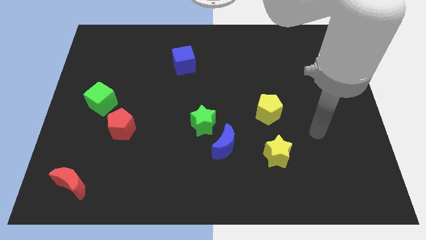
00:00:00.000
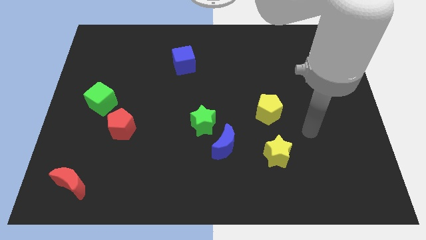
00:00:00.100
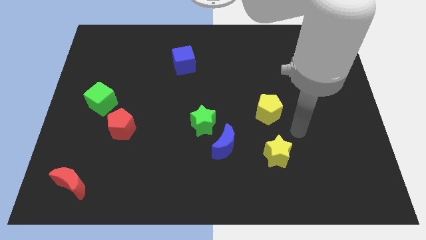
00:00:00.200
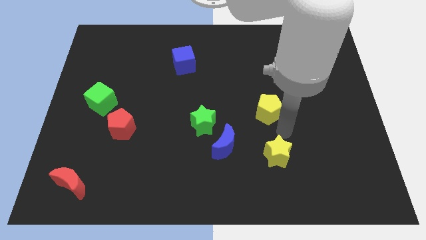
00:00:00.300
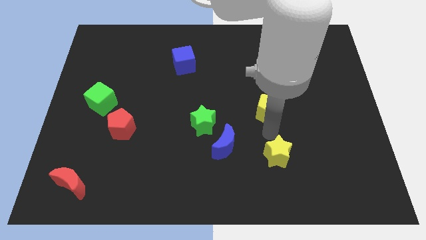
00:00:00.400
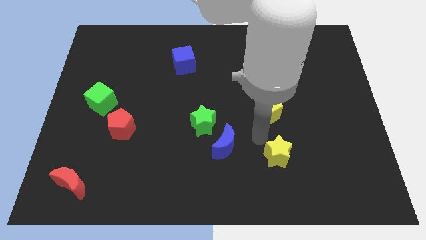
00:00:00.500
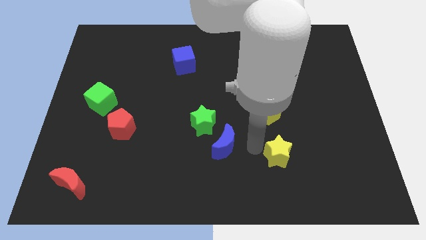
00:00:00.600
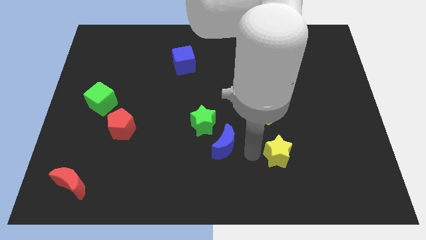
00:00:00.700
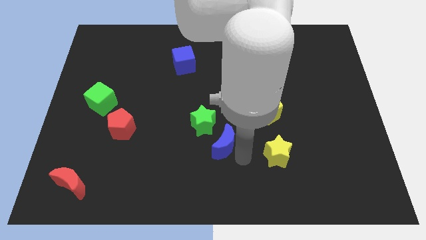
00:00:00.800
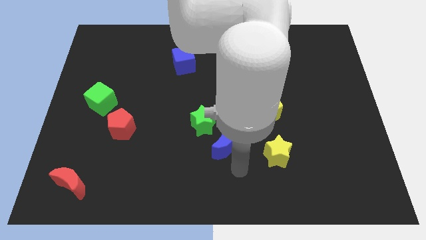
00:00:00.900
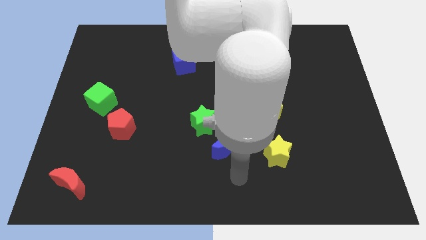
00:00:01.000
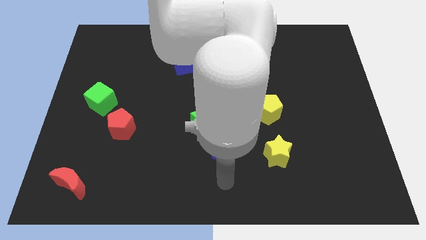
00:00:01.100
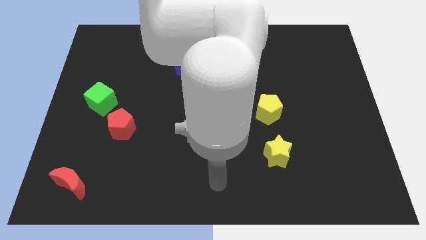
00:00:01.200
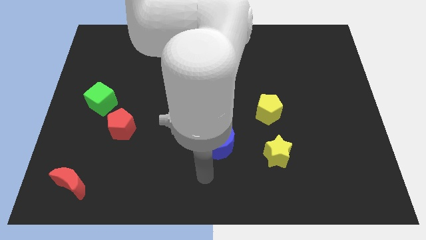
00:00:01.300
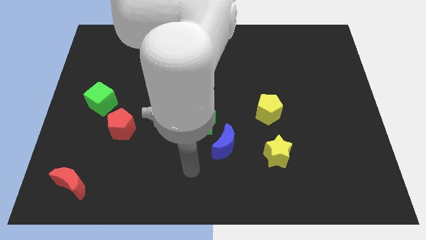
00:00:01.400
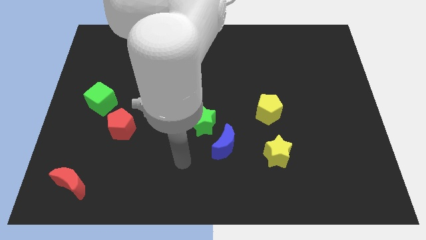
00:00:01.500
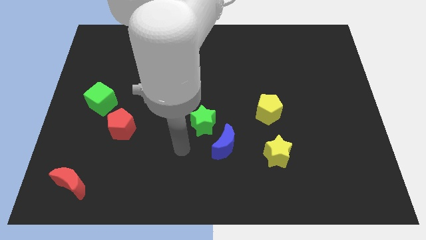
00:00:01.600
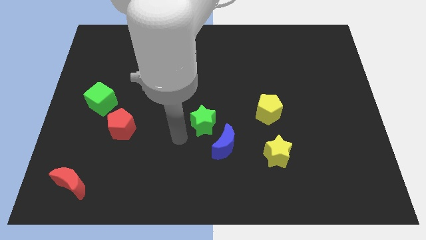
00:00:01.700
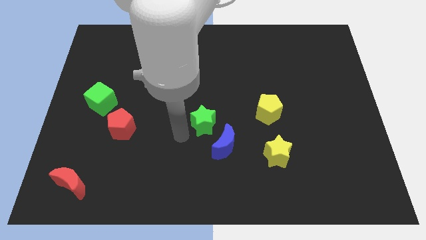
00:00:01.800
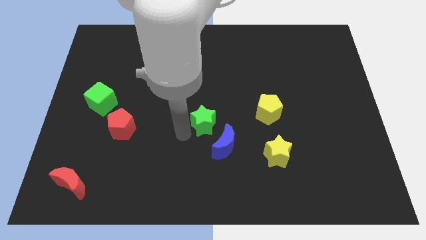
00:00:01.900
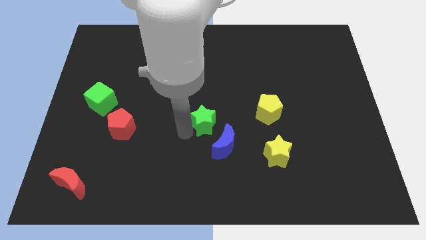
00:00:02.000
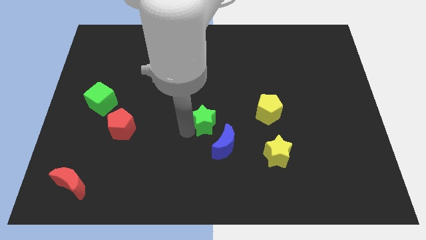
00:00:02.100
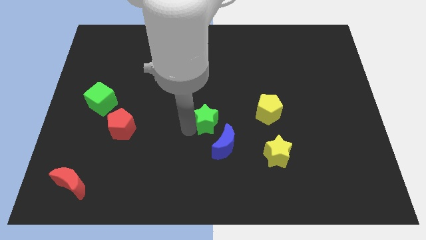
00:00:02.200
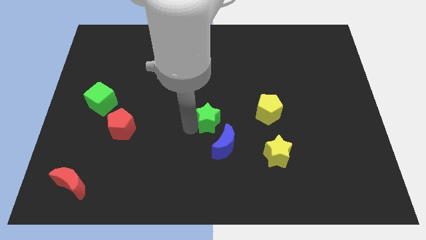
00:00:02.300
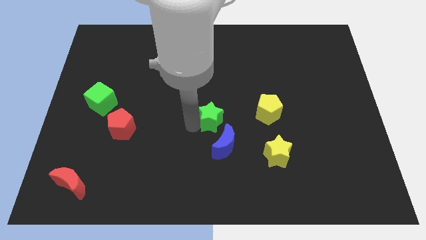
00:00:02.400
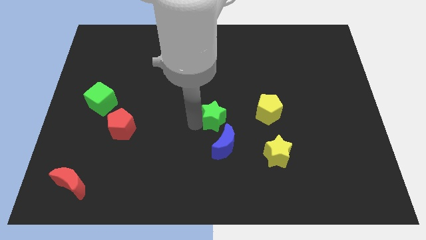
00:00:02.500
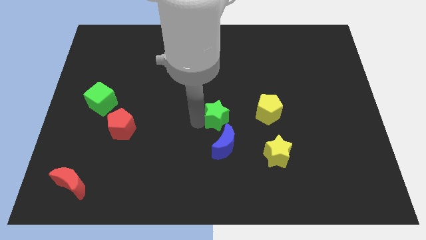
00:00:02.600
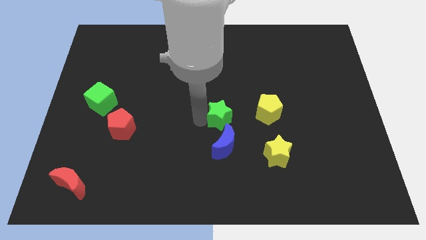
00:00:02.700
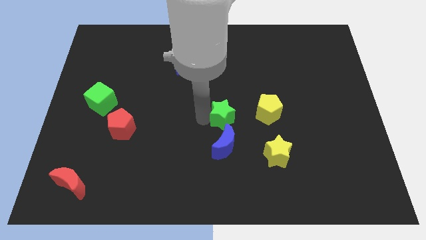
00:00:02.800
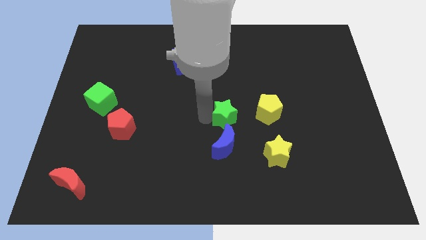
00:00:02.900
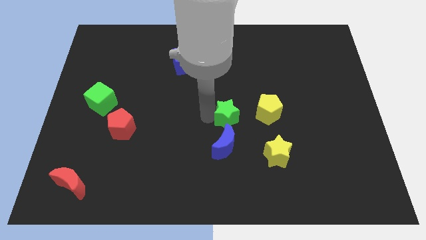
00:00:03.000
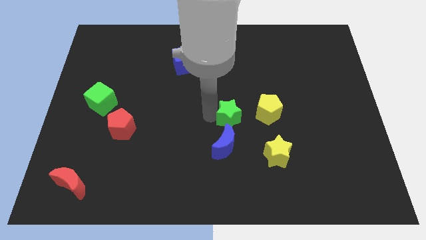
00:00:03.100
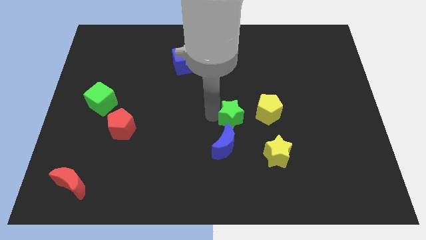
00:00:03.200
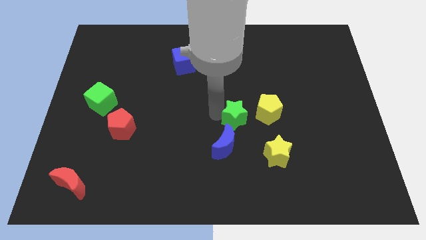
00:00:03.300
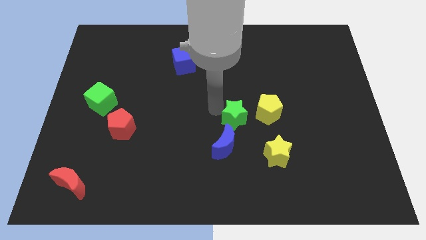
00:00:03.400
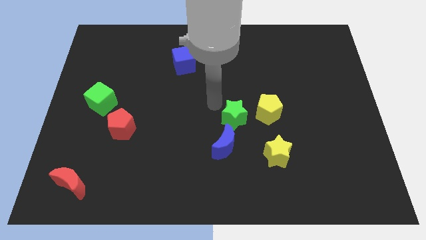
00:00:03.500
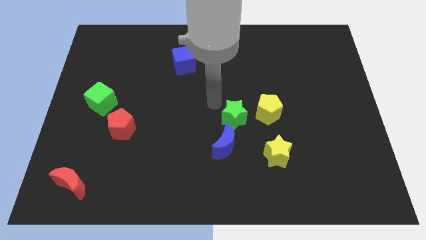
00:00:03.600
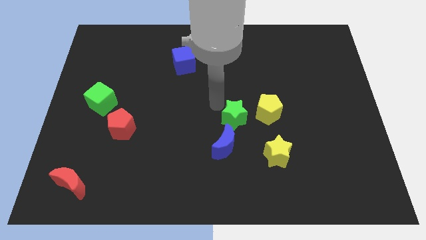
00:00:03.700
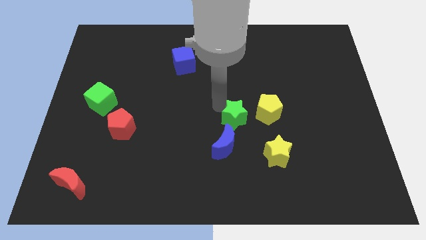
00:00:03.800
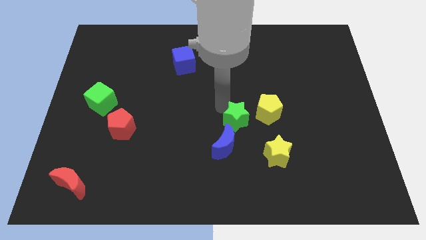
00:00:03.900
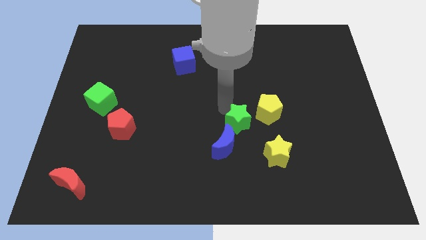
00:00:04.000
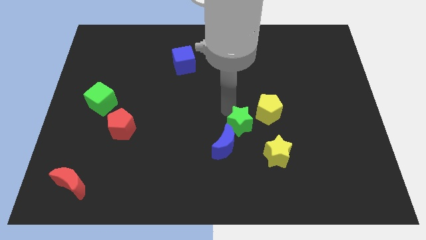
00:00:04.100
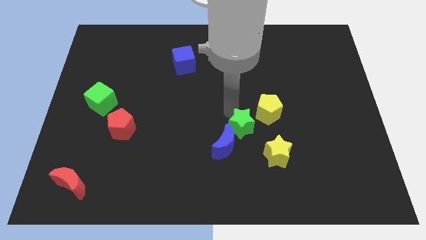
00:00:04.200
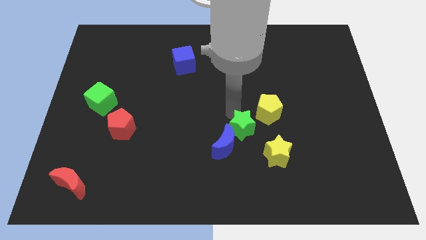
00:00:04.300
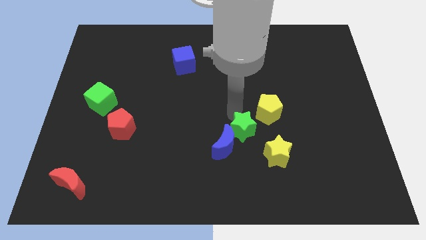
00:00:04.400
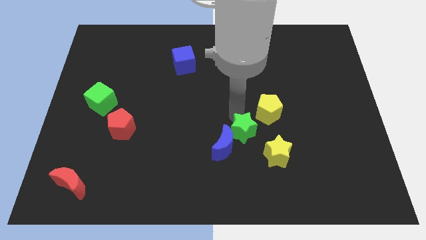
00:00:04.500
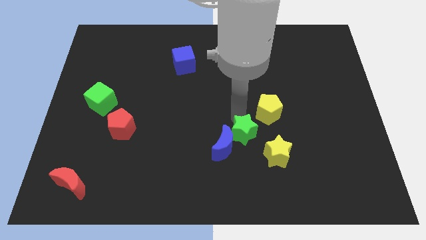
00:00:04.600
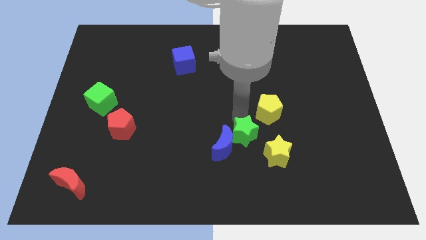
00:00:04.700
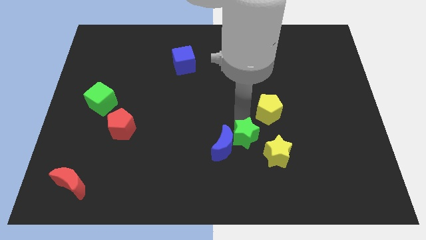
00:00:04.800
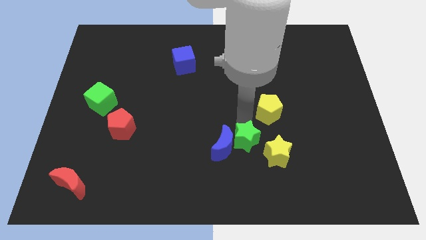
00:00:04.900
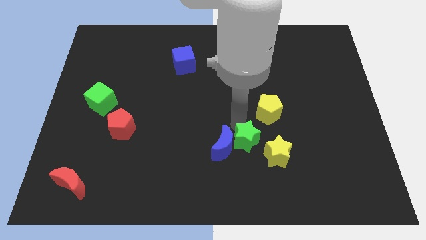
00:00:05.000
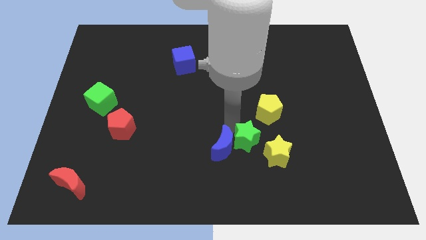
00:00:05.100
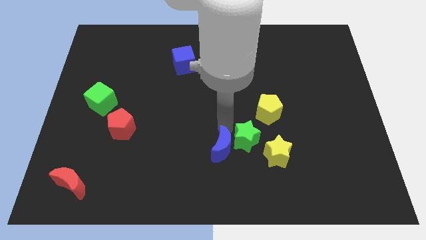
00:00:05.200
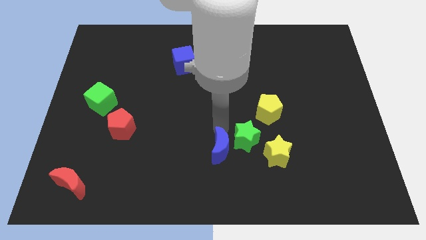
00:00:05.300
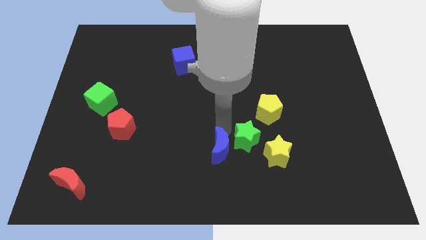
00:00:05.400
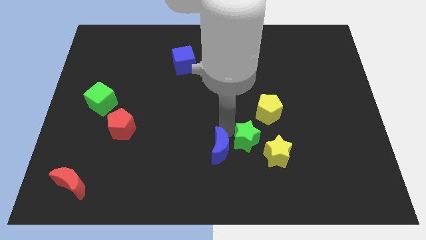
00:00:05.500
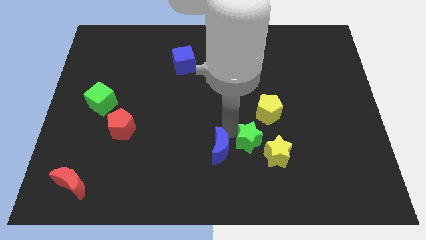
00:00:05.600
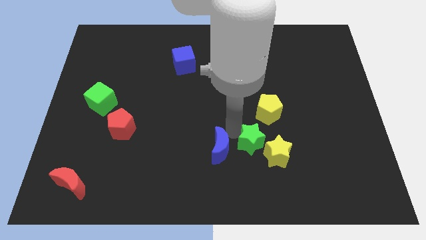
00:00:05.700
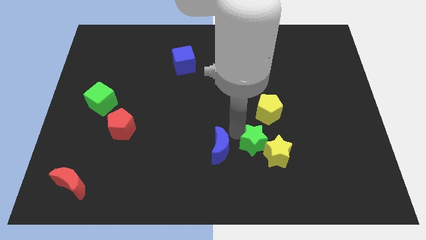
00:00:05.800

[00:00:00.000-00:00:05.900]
push the green star to the yellow star

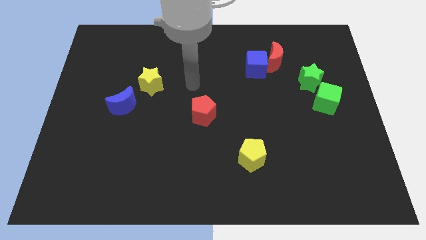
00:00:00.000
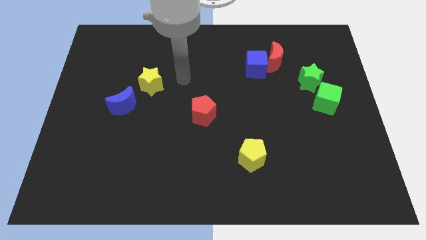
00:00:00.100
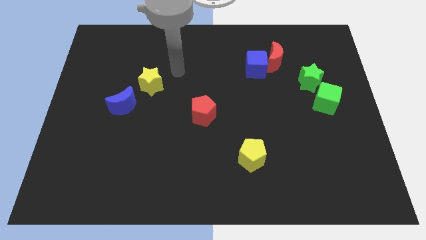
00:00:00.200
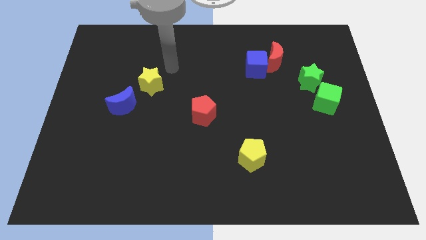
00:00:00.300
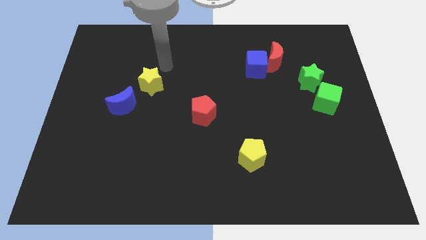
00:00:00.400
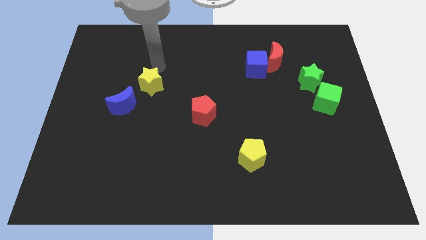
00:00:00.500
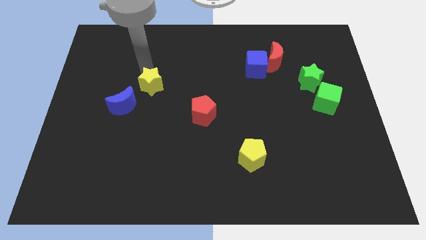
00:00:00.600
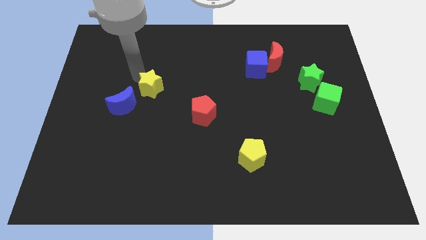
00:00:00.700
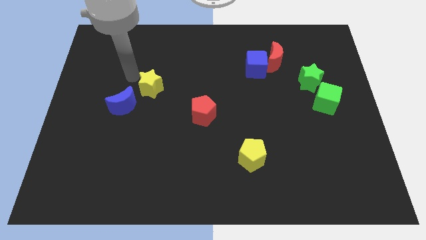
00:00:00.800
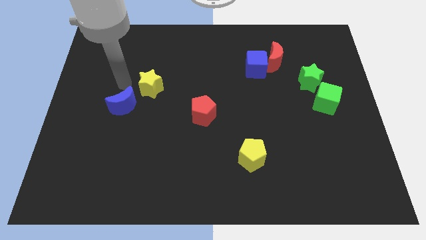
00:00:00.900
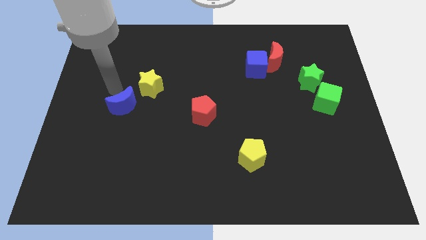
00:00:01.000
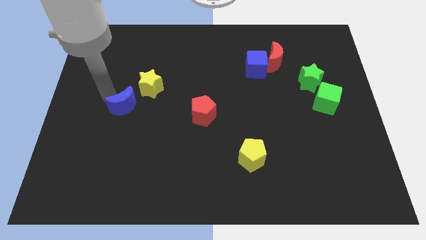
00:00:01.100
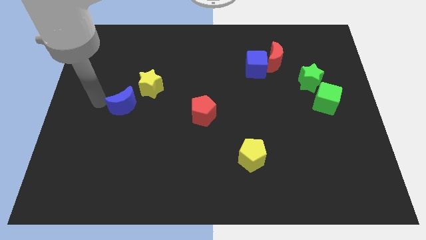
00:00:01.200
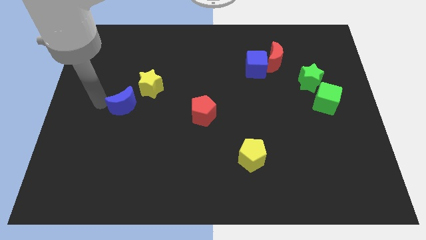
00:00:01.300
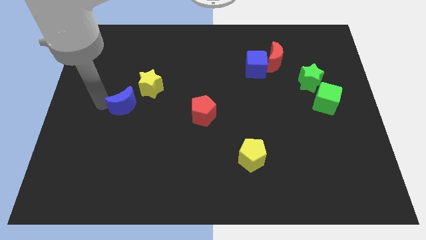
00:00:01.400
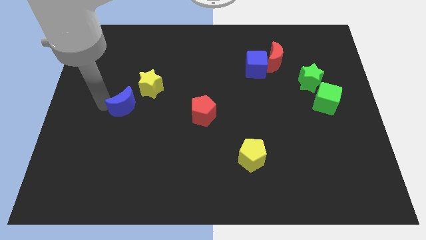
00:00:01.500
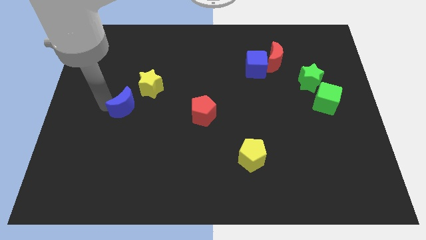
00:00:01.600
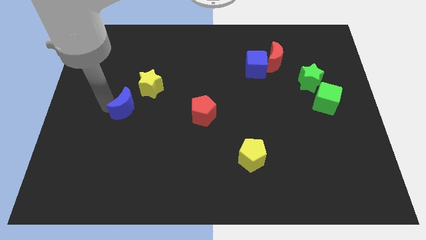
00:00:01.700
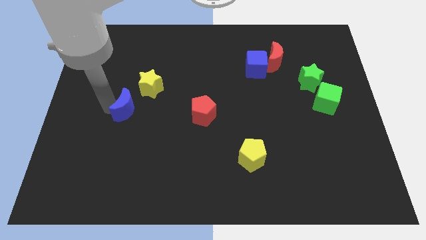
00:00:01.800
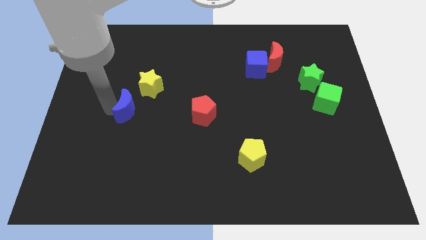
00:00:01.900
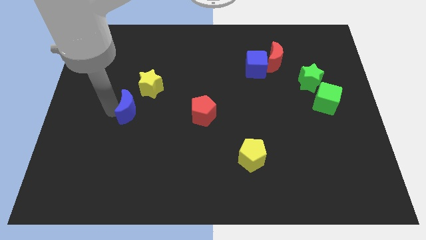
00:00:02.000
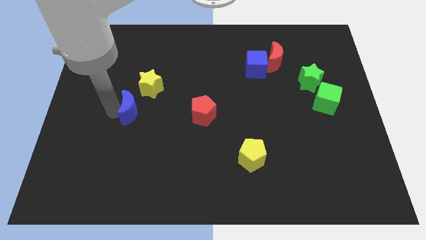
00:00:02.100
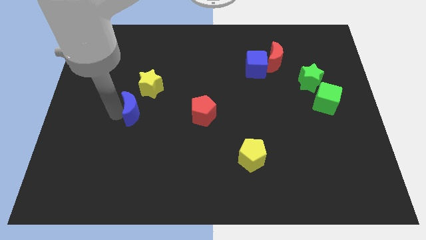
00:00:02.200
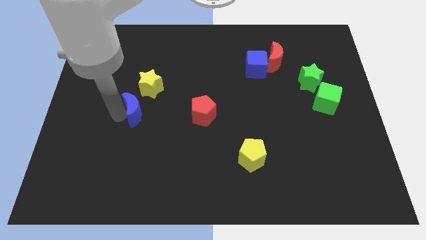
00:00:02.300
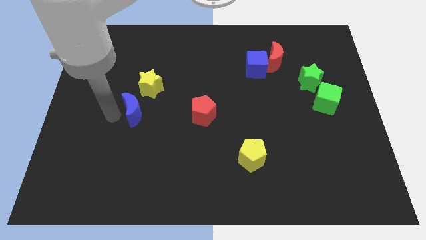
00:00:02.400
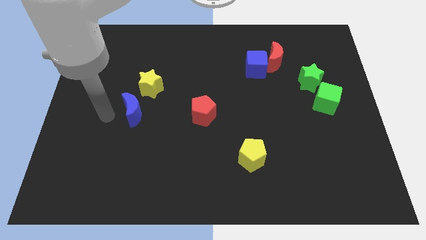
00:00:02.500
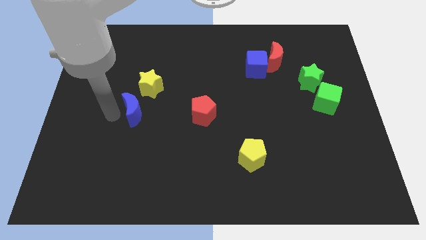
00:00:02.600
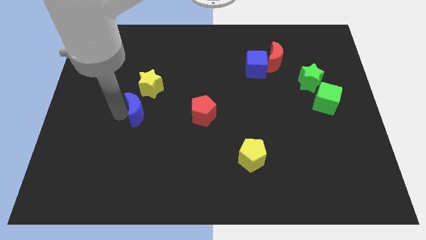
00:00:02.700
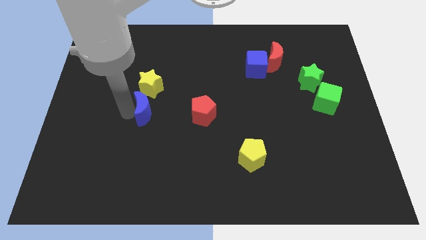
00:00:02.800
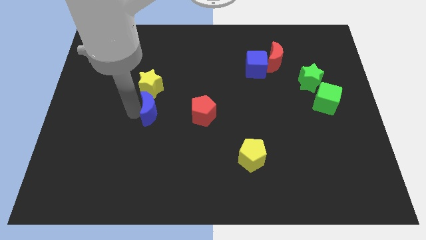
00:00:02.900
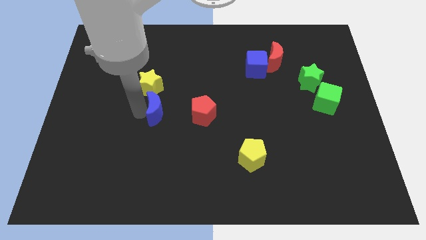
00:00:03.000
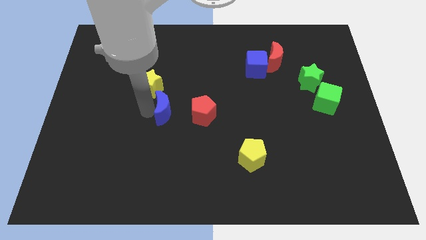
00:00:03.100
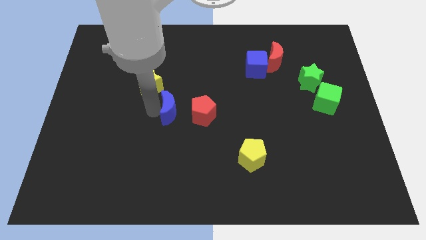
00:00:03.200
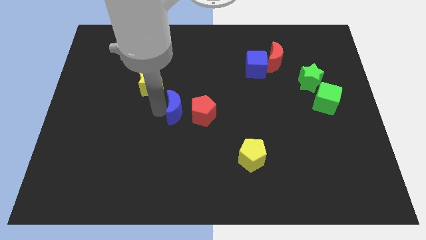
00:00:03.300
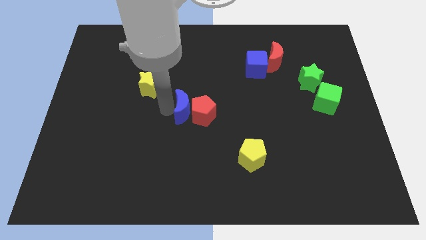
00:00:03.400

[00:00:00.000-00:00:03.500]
push the blue moon towards the red pentagon
